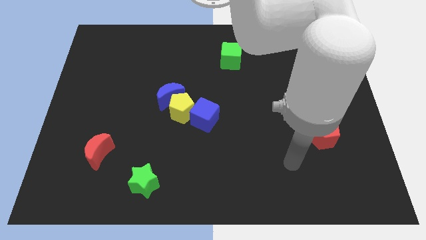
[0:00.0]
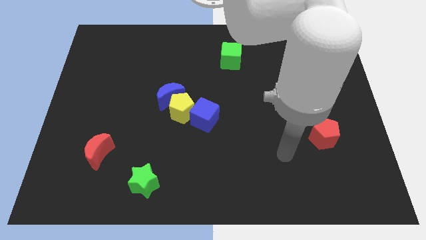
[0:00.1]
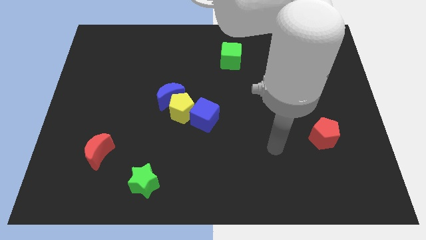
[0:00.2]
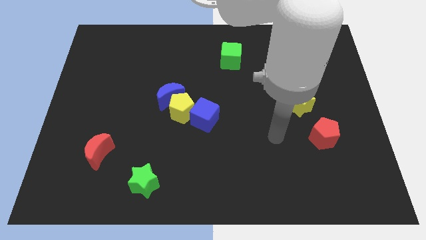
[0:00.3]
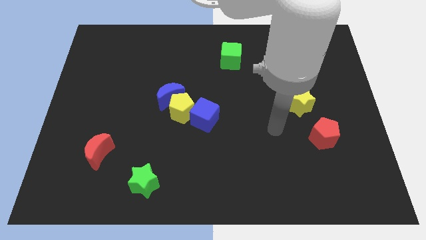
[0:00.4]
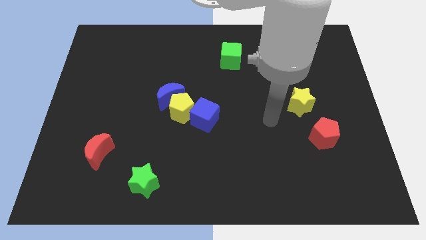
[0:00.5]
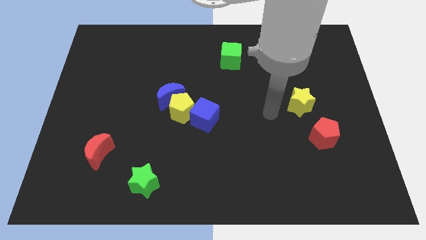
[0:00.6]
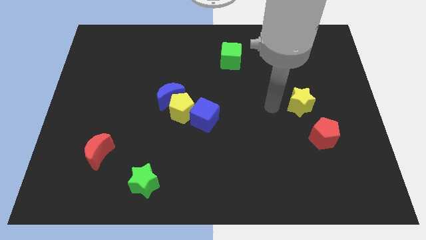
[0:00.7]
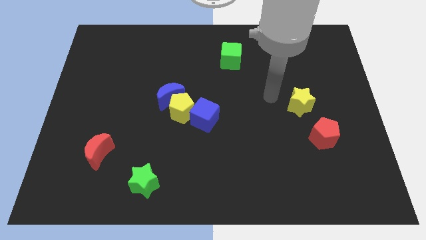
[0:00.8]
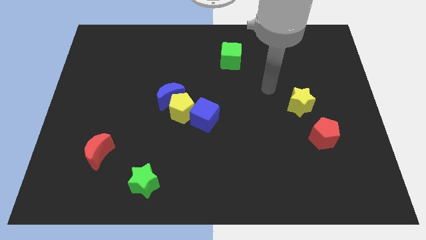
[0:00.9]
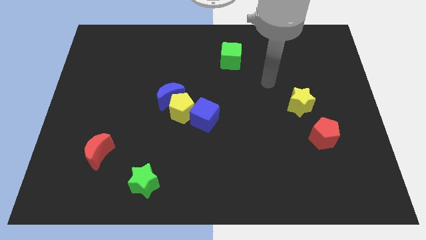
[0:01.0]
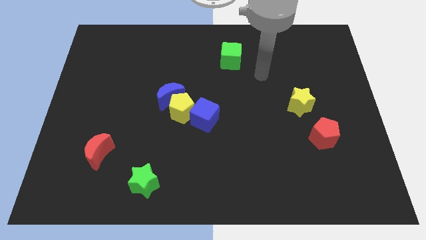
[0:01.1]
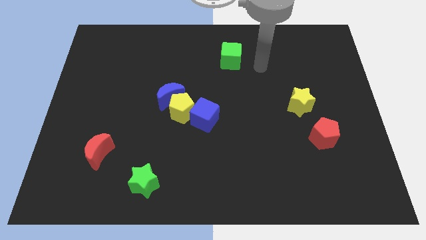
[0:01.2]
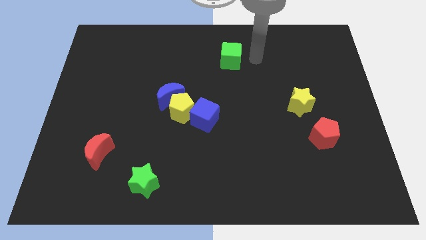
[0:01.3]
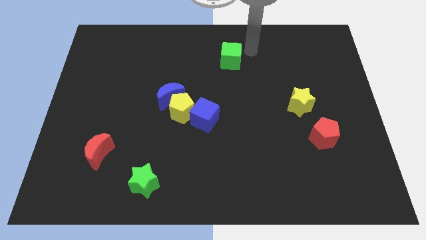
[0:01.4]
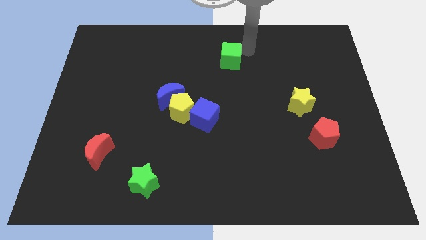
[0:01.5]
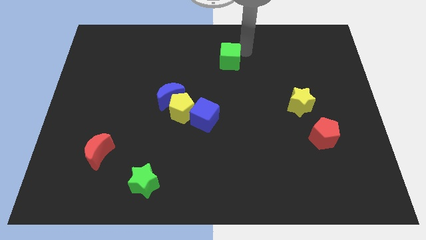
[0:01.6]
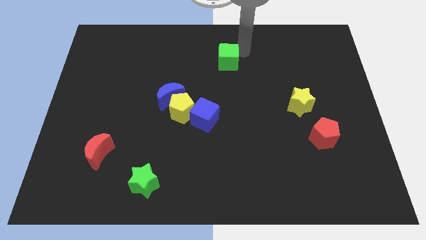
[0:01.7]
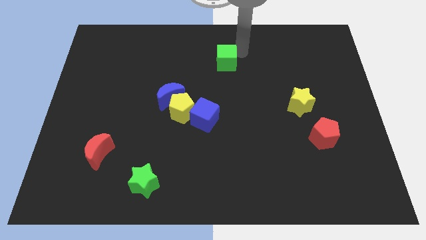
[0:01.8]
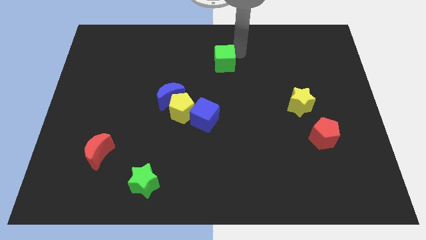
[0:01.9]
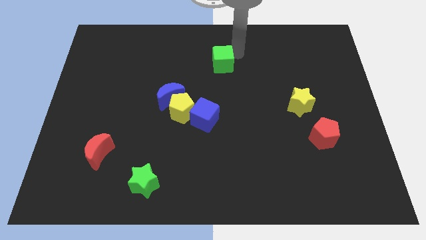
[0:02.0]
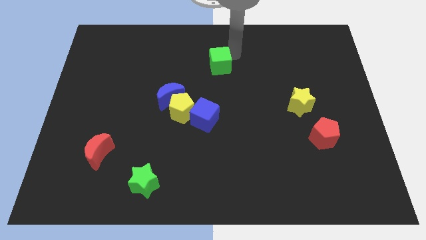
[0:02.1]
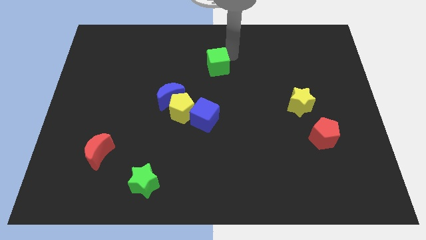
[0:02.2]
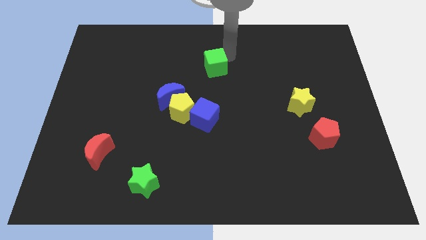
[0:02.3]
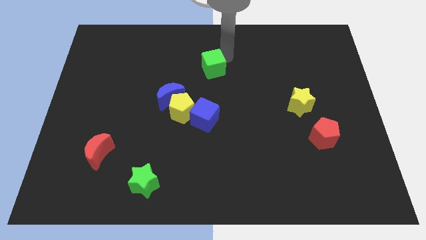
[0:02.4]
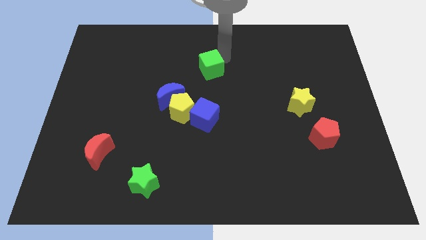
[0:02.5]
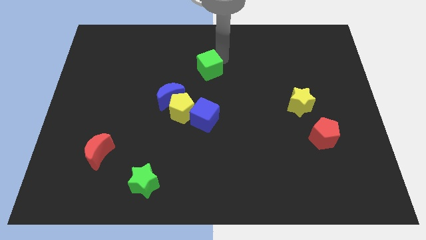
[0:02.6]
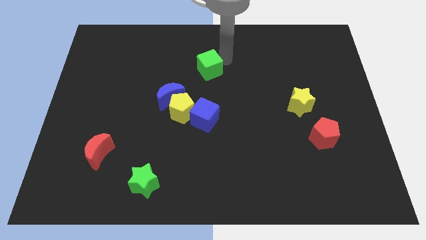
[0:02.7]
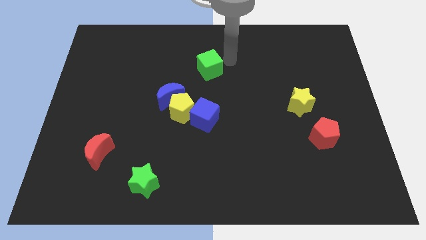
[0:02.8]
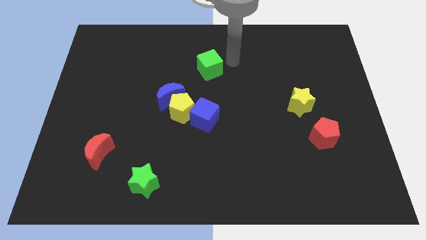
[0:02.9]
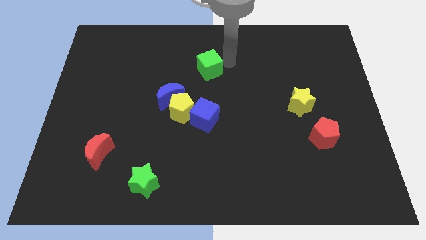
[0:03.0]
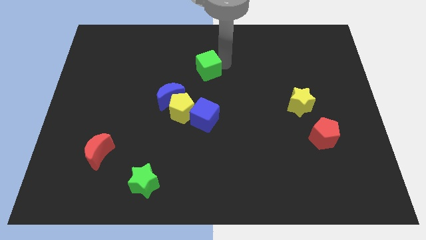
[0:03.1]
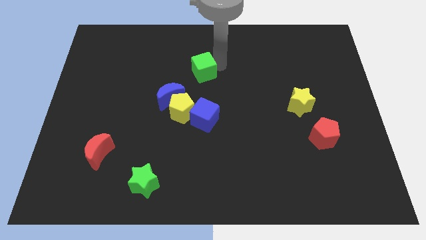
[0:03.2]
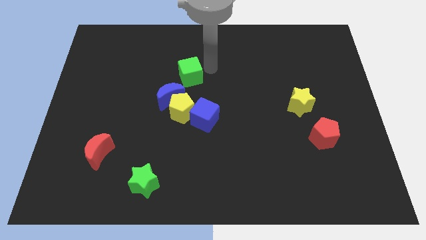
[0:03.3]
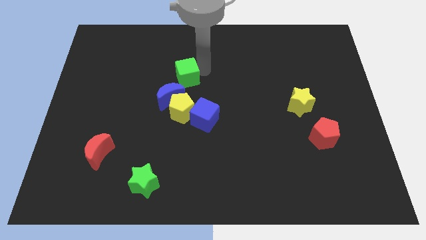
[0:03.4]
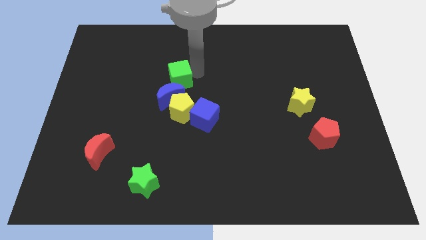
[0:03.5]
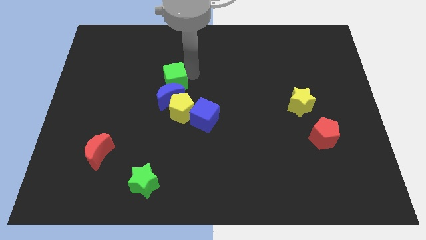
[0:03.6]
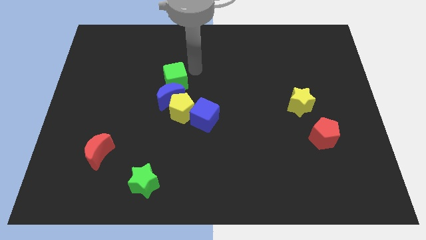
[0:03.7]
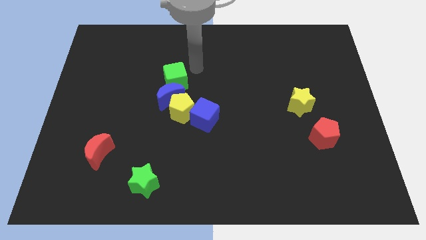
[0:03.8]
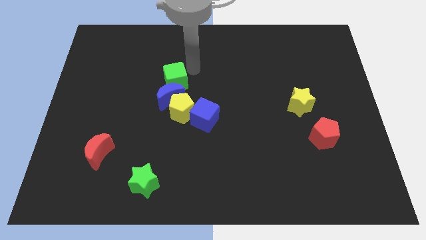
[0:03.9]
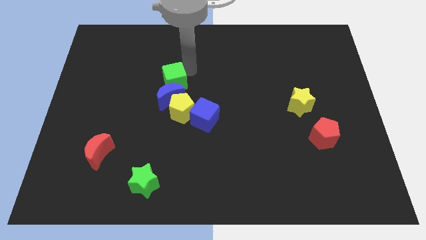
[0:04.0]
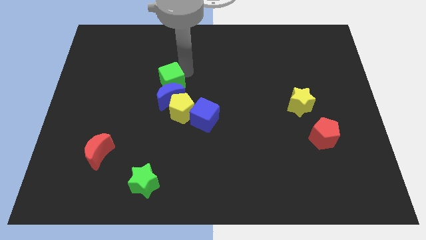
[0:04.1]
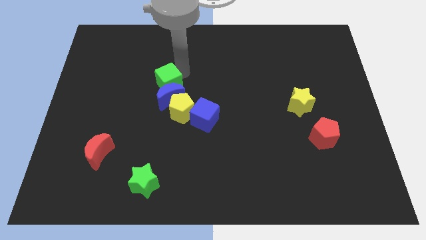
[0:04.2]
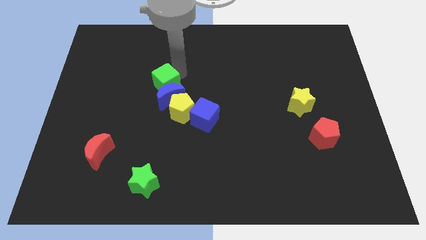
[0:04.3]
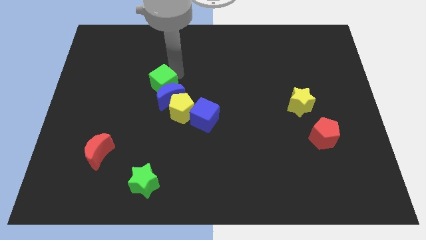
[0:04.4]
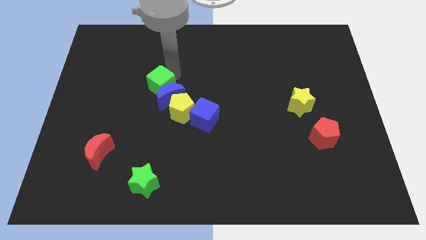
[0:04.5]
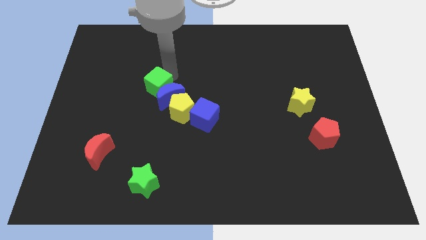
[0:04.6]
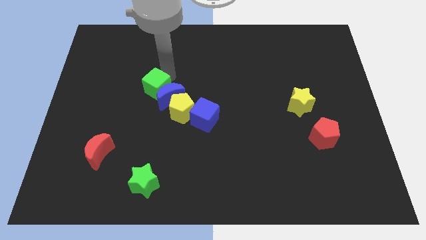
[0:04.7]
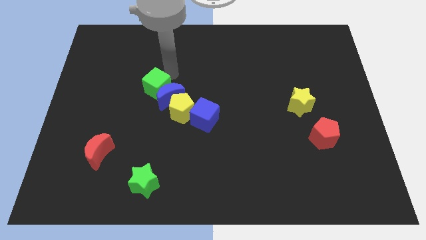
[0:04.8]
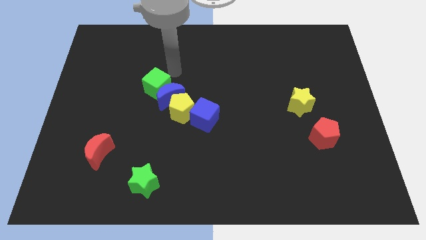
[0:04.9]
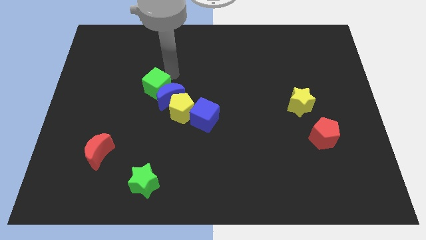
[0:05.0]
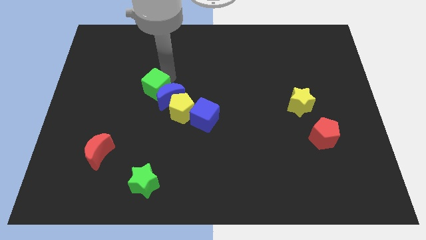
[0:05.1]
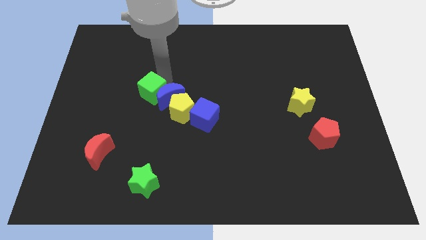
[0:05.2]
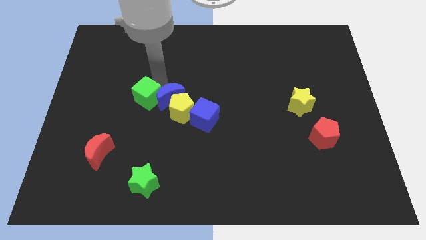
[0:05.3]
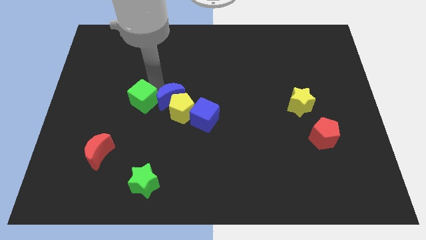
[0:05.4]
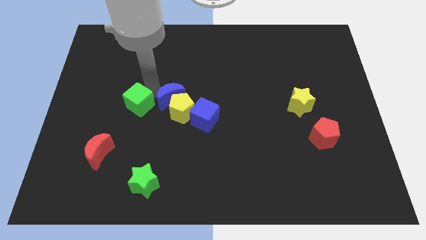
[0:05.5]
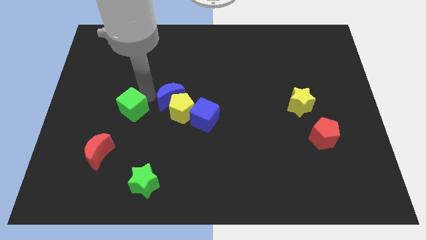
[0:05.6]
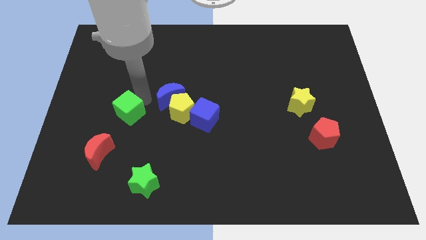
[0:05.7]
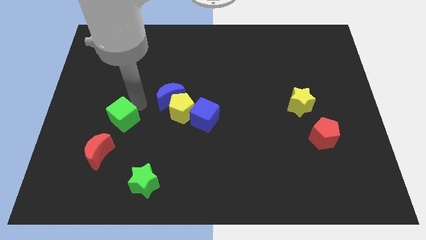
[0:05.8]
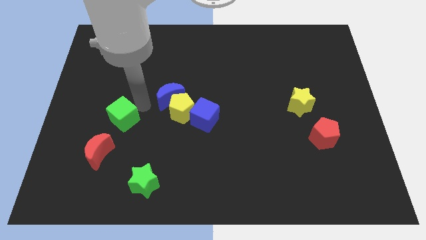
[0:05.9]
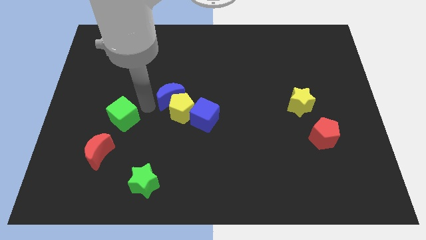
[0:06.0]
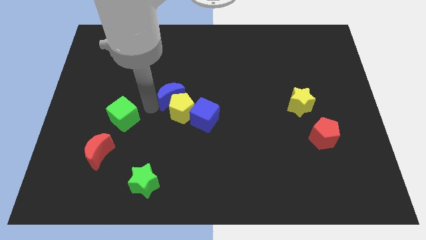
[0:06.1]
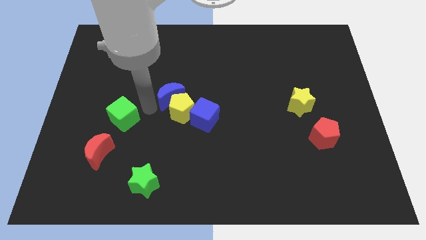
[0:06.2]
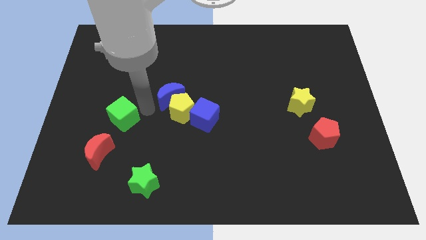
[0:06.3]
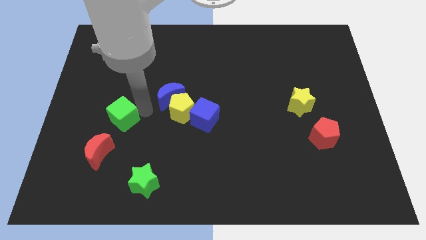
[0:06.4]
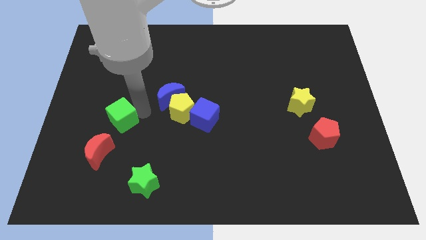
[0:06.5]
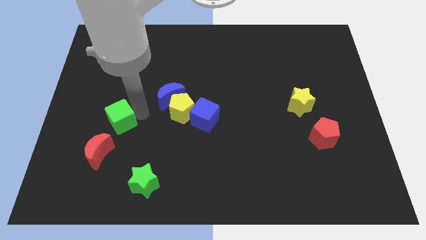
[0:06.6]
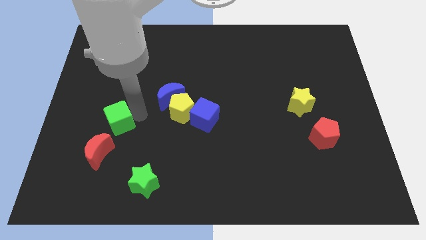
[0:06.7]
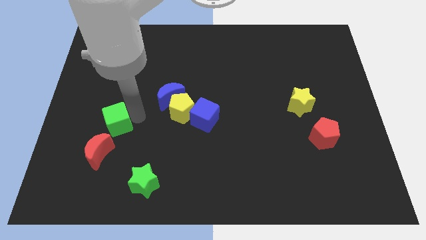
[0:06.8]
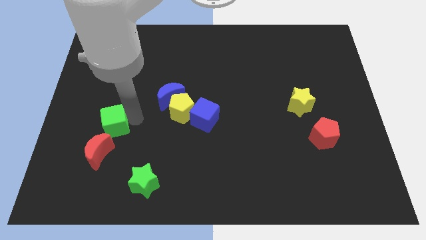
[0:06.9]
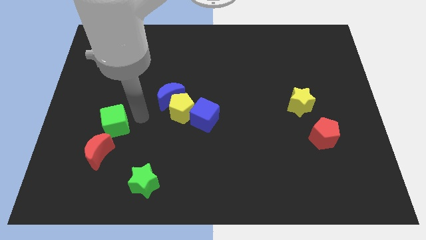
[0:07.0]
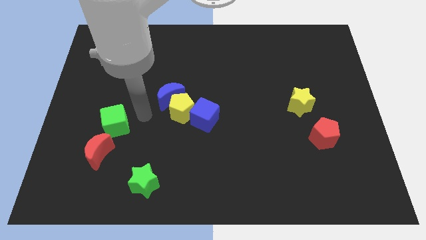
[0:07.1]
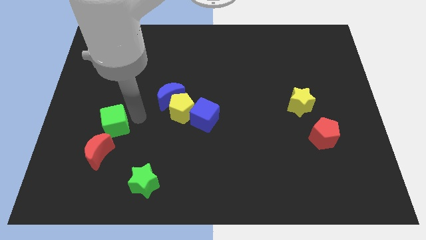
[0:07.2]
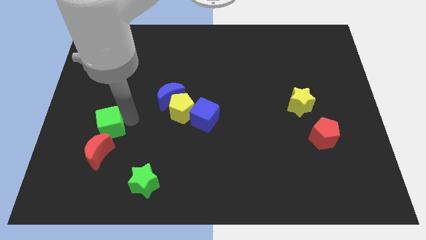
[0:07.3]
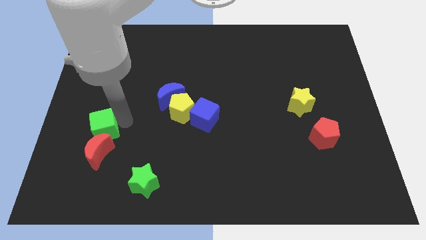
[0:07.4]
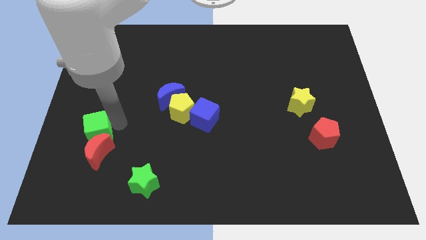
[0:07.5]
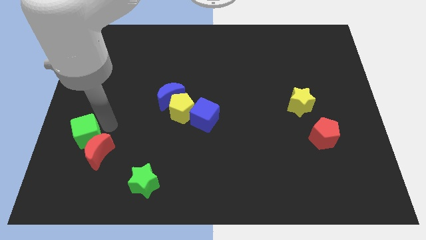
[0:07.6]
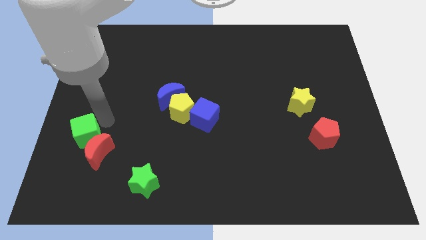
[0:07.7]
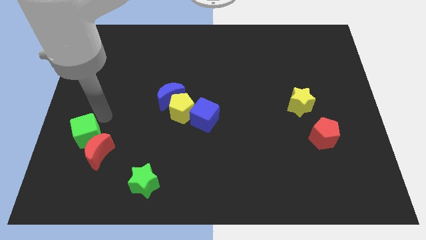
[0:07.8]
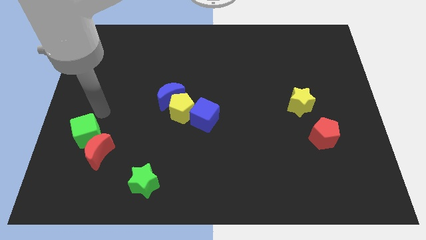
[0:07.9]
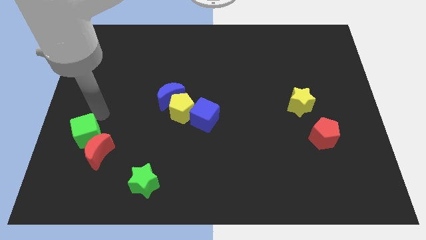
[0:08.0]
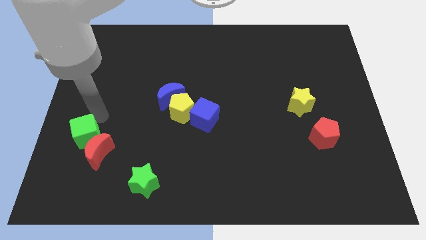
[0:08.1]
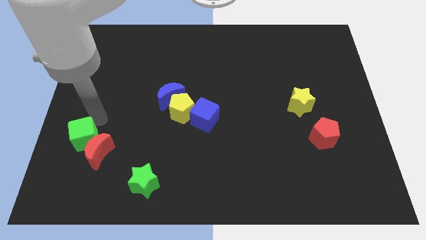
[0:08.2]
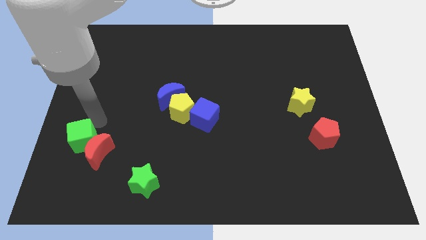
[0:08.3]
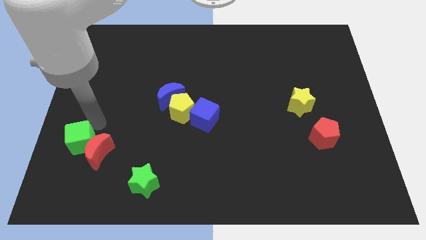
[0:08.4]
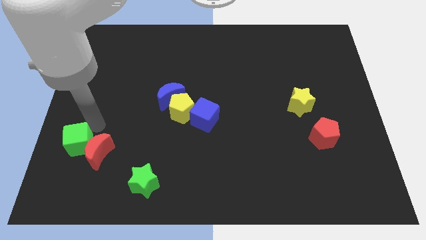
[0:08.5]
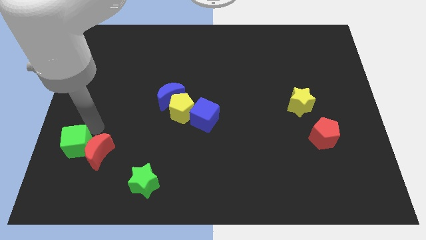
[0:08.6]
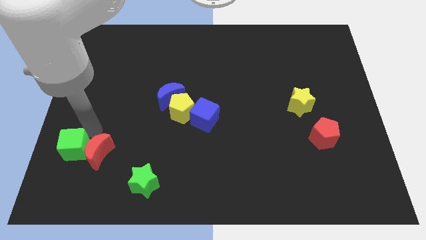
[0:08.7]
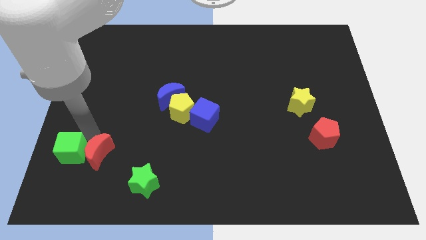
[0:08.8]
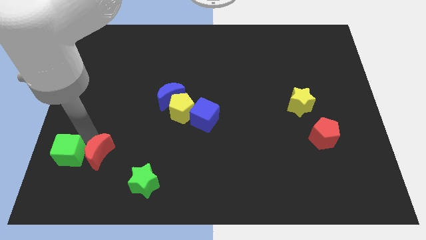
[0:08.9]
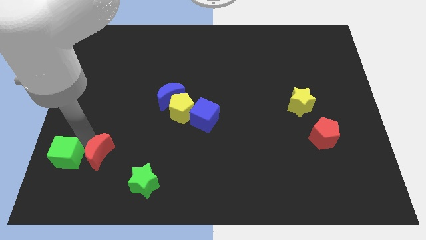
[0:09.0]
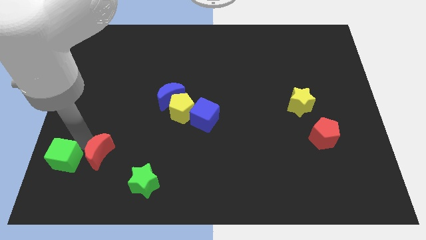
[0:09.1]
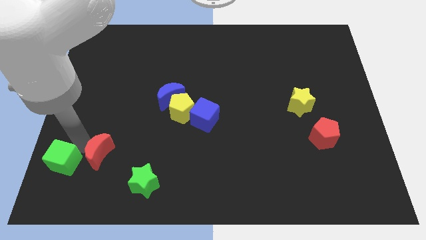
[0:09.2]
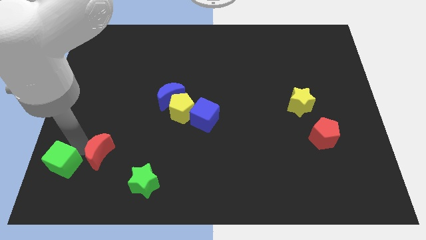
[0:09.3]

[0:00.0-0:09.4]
slide the green cube to the bottom left of the board
